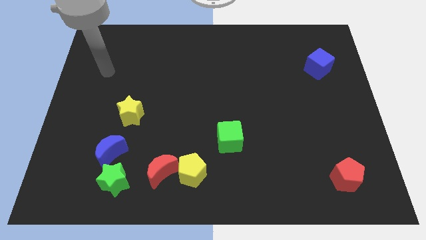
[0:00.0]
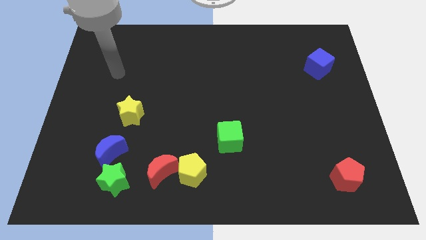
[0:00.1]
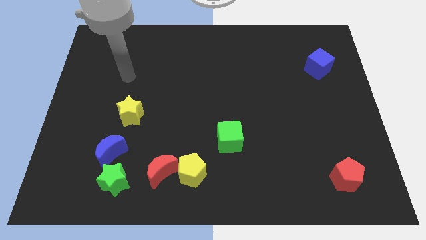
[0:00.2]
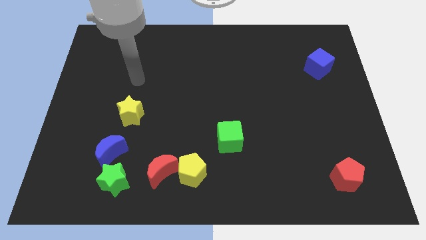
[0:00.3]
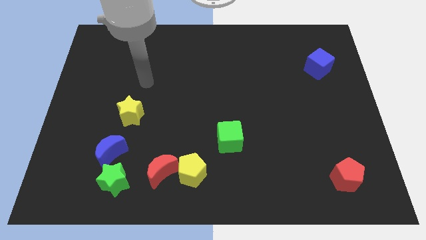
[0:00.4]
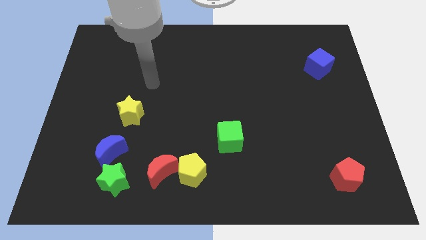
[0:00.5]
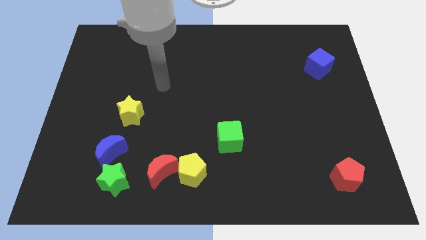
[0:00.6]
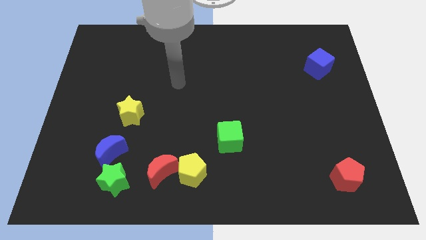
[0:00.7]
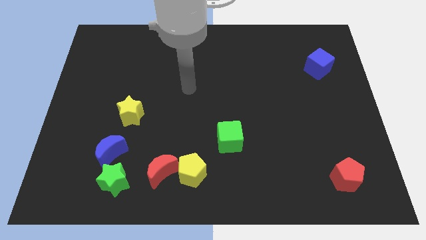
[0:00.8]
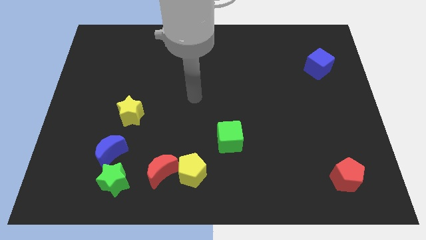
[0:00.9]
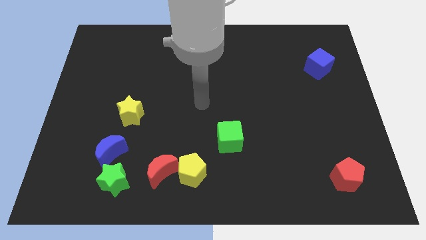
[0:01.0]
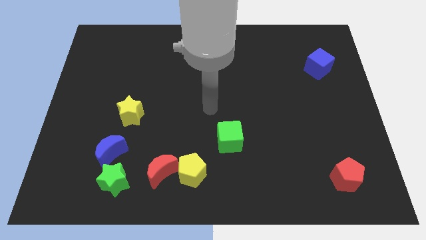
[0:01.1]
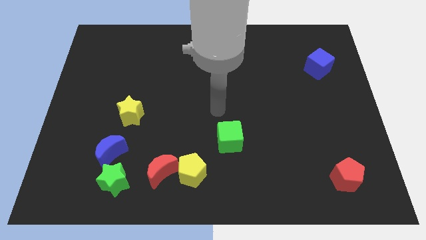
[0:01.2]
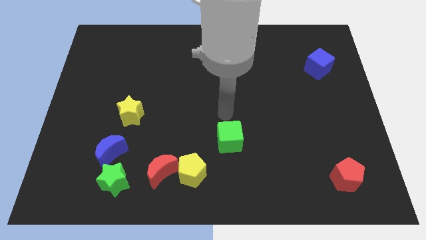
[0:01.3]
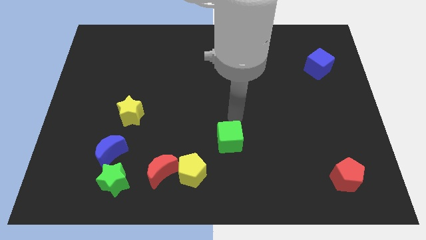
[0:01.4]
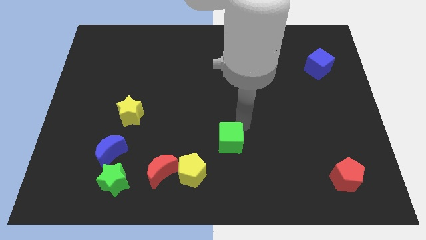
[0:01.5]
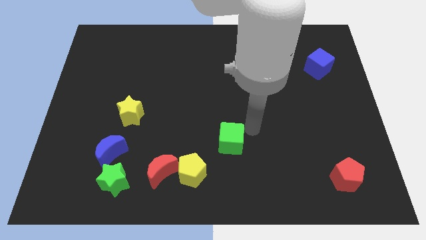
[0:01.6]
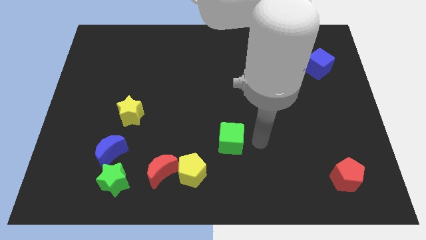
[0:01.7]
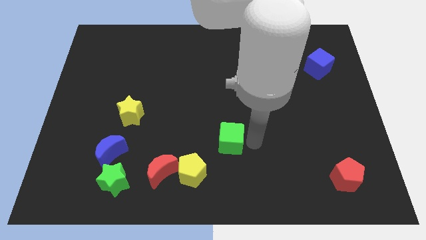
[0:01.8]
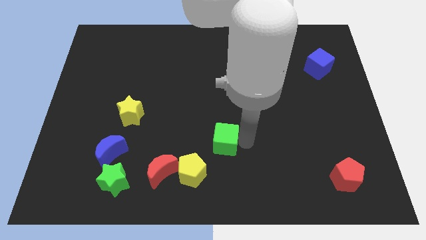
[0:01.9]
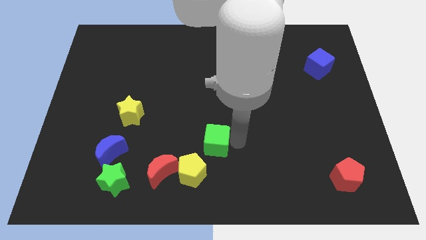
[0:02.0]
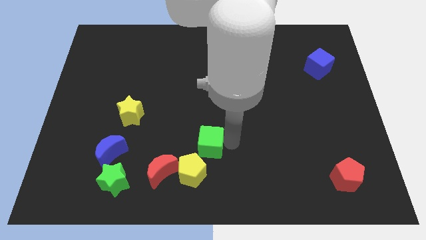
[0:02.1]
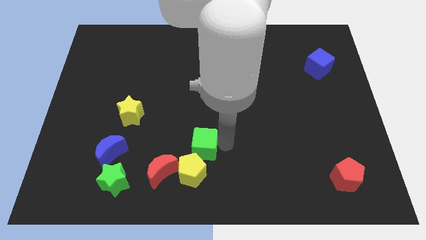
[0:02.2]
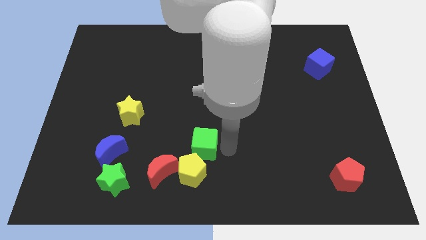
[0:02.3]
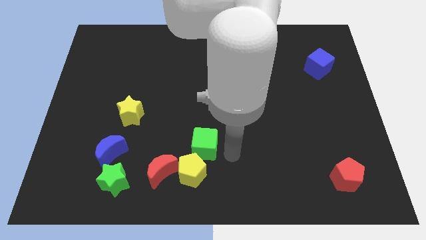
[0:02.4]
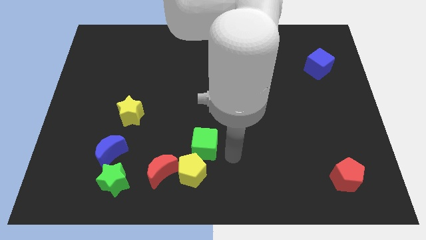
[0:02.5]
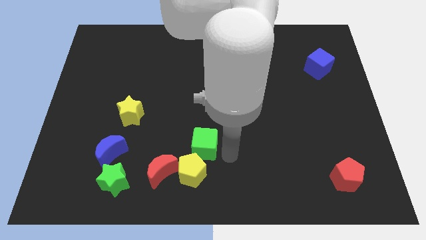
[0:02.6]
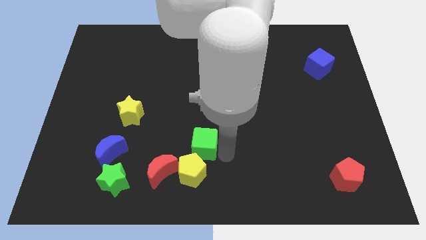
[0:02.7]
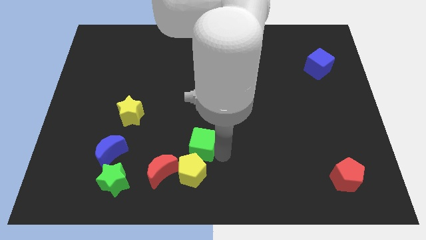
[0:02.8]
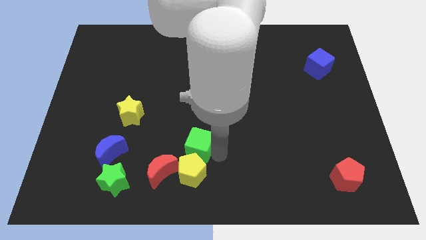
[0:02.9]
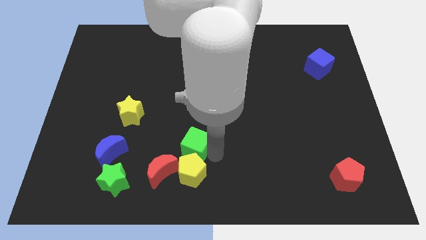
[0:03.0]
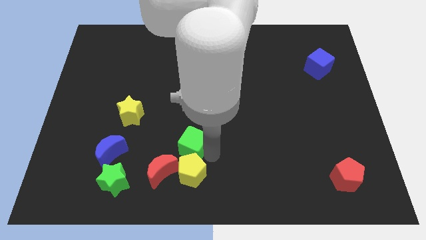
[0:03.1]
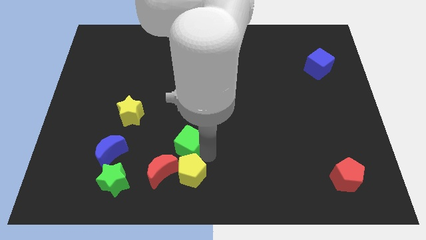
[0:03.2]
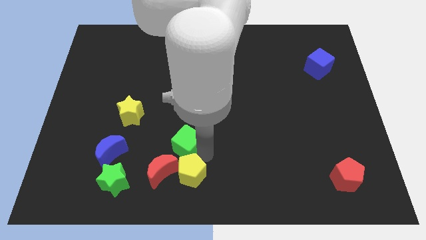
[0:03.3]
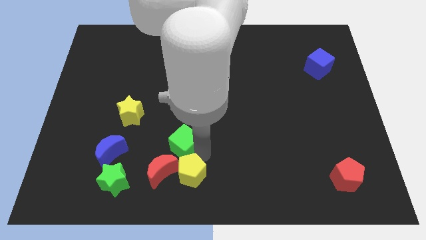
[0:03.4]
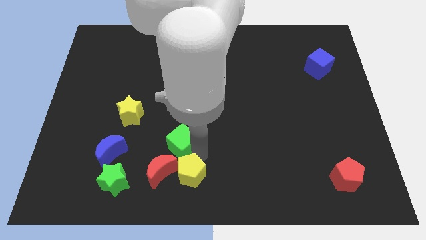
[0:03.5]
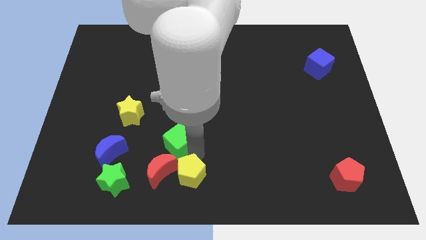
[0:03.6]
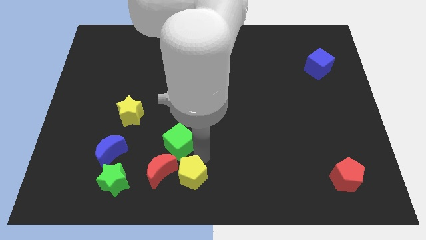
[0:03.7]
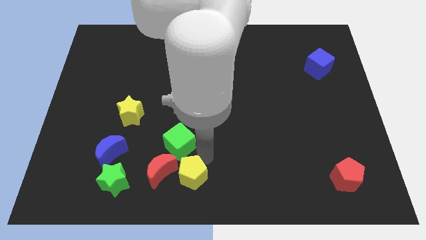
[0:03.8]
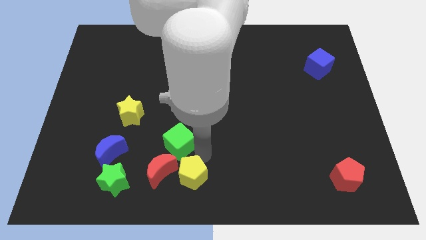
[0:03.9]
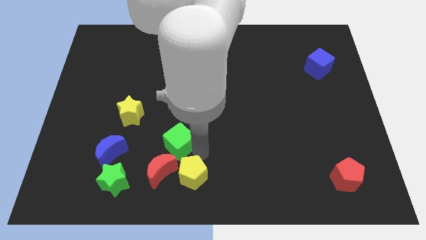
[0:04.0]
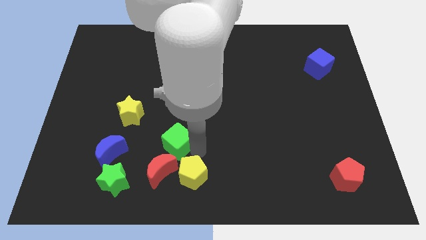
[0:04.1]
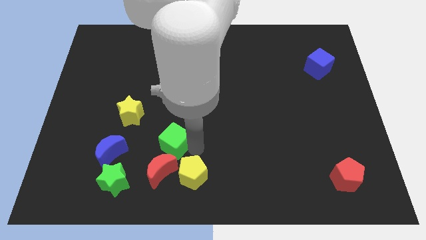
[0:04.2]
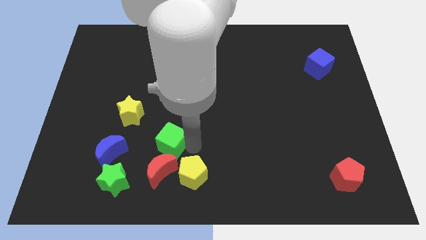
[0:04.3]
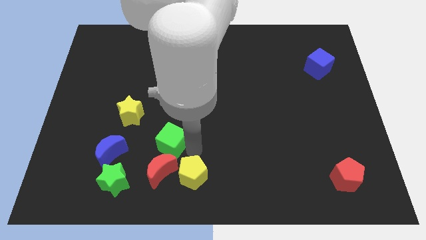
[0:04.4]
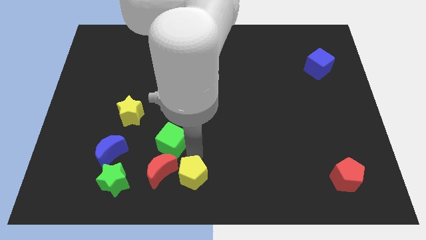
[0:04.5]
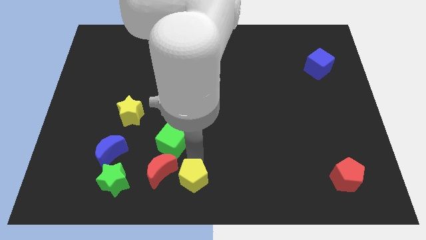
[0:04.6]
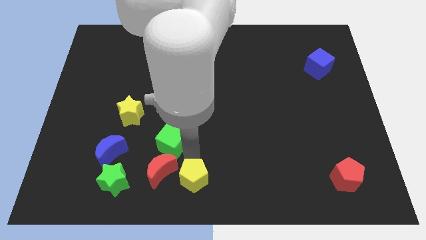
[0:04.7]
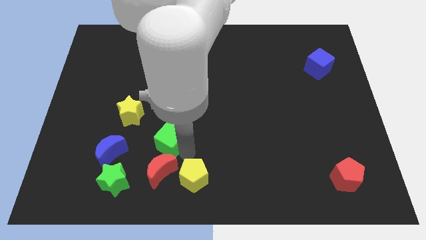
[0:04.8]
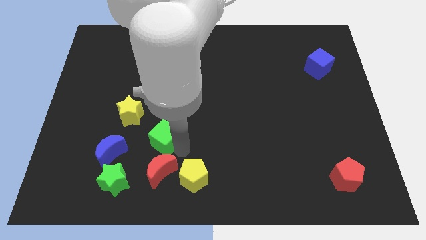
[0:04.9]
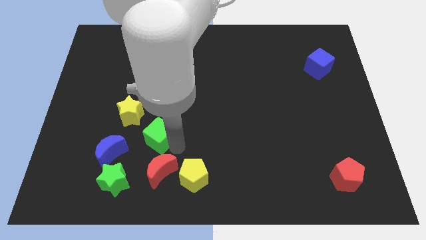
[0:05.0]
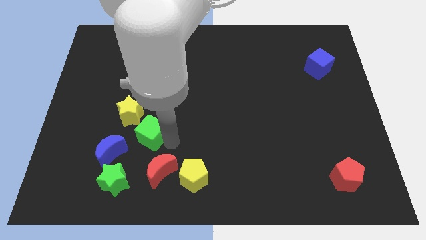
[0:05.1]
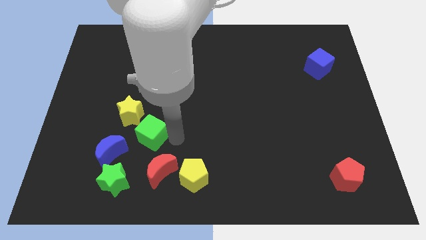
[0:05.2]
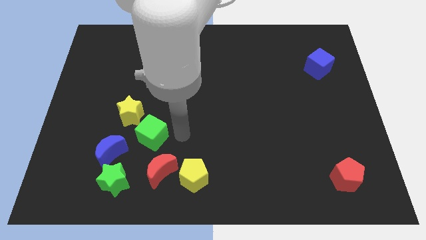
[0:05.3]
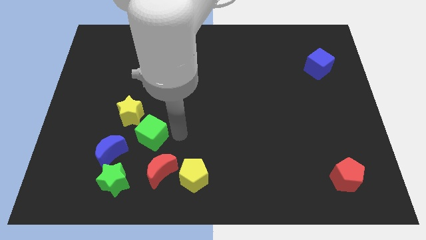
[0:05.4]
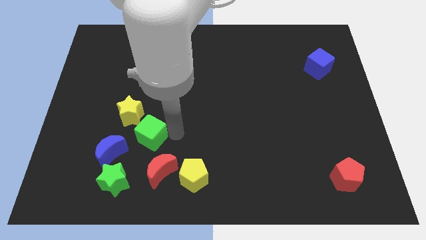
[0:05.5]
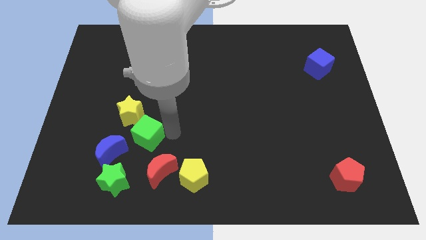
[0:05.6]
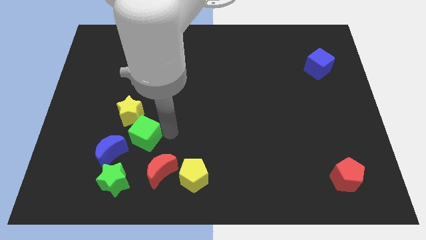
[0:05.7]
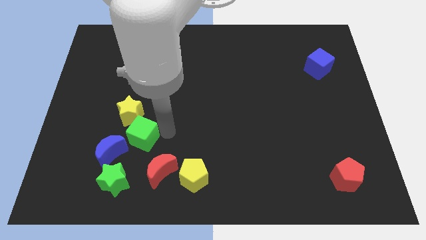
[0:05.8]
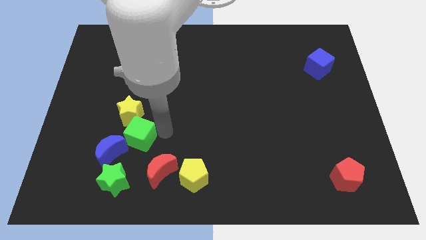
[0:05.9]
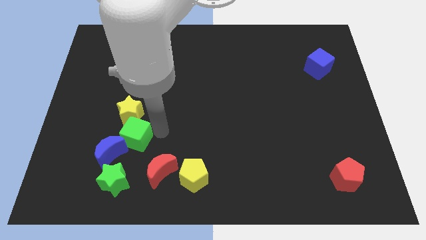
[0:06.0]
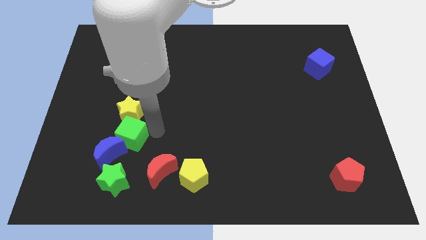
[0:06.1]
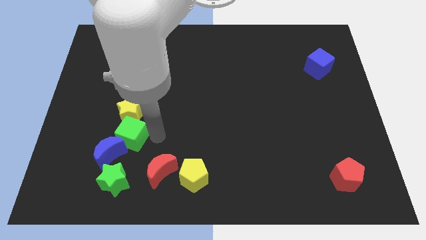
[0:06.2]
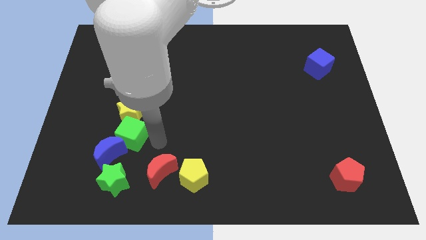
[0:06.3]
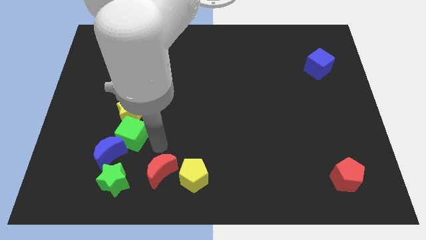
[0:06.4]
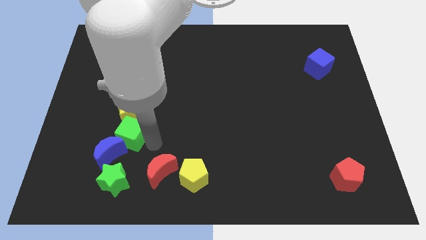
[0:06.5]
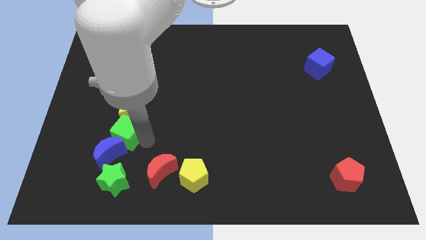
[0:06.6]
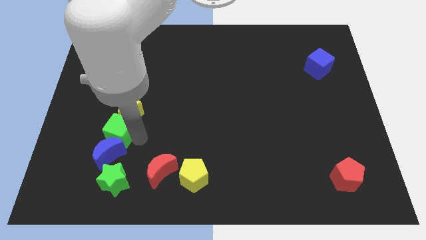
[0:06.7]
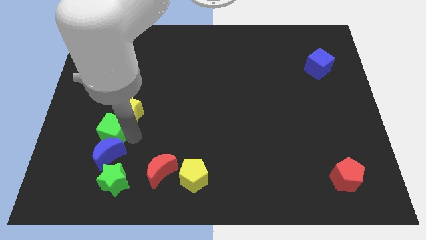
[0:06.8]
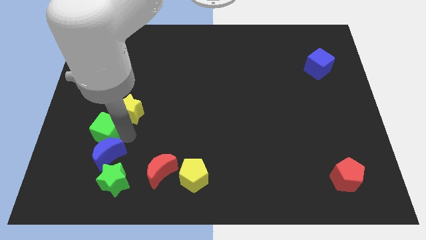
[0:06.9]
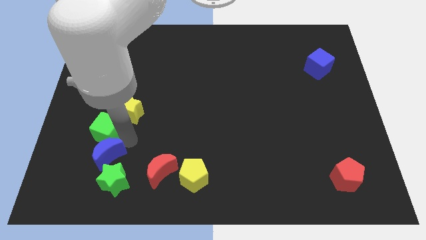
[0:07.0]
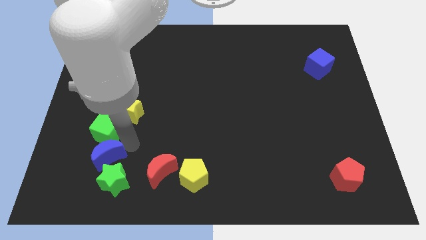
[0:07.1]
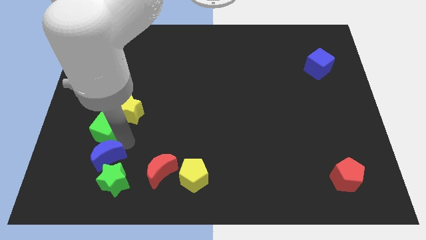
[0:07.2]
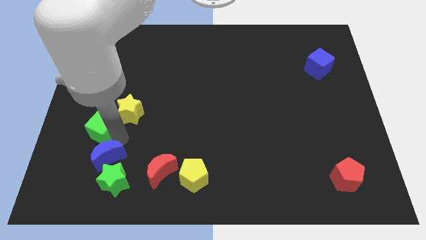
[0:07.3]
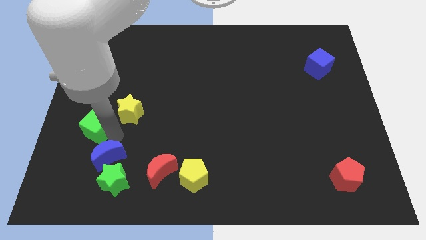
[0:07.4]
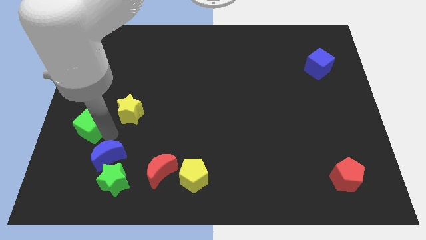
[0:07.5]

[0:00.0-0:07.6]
push the green cube to the left side of the board
